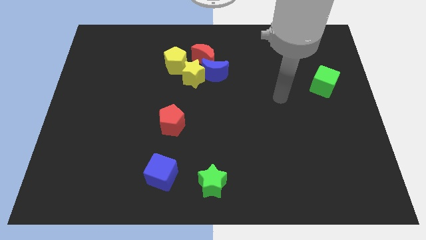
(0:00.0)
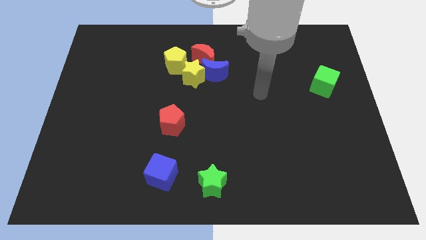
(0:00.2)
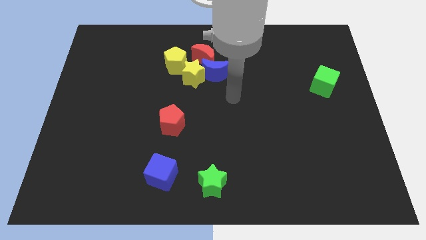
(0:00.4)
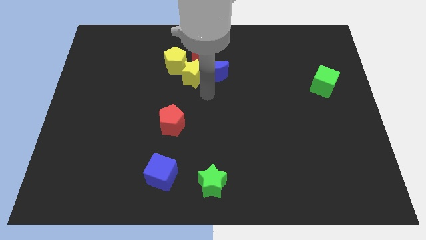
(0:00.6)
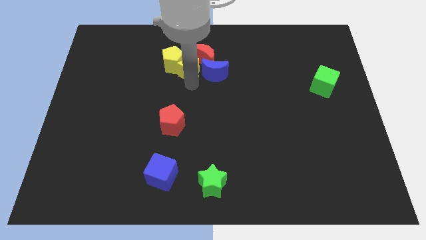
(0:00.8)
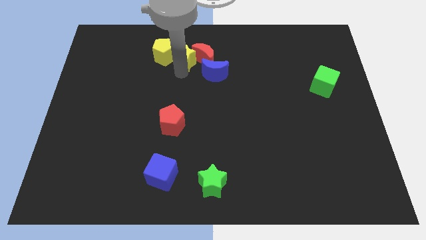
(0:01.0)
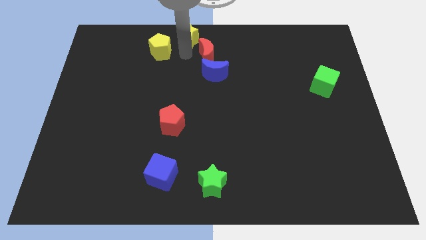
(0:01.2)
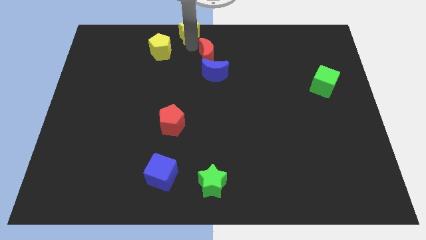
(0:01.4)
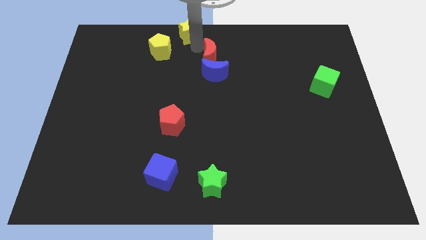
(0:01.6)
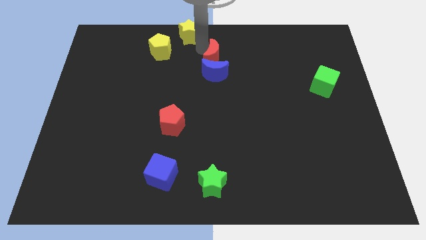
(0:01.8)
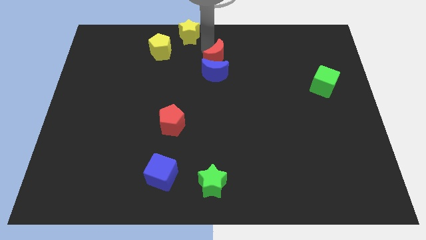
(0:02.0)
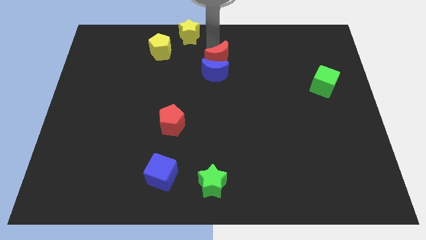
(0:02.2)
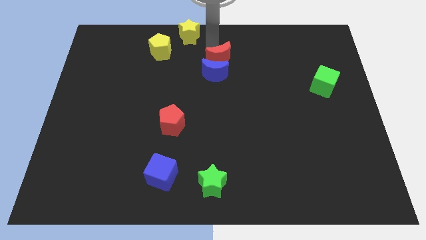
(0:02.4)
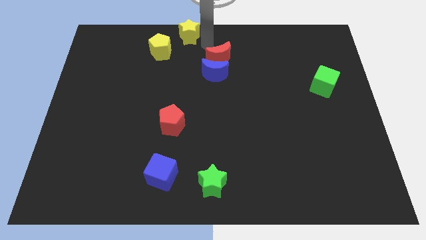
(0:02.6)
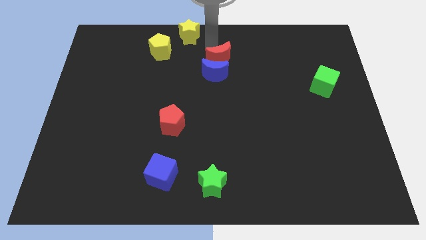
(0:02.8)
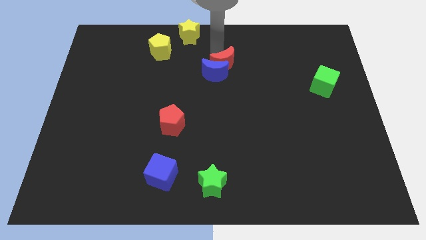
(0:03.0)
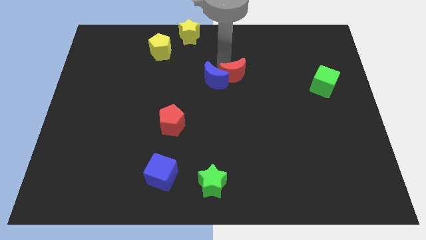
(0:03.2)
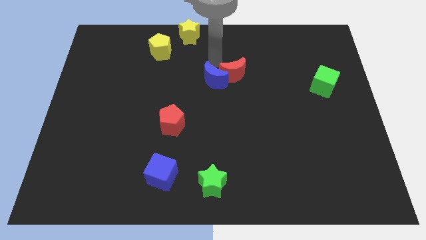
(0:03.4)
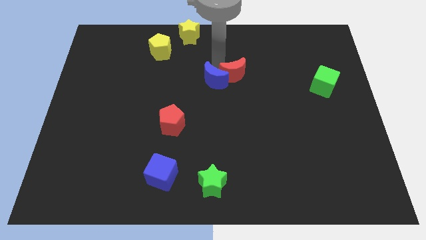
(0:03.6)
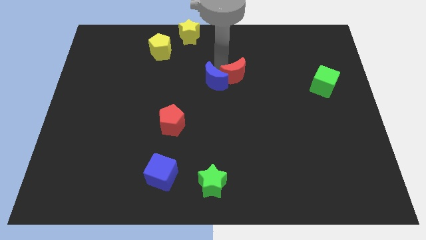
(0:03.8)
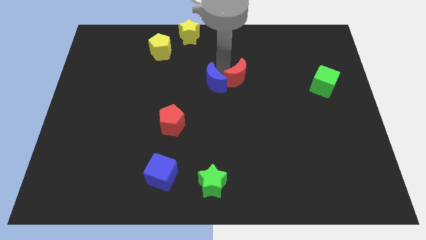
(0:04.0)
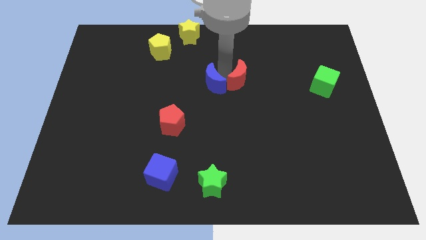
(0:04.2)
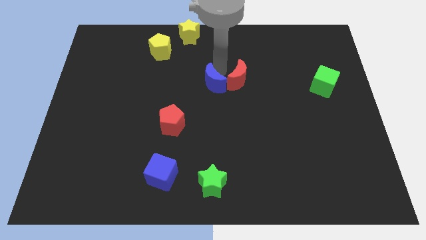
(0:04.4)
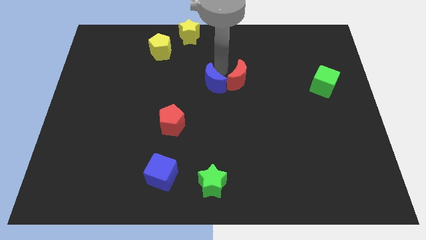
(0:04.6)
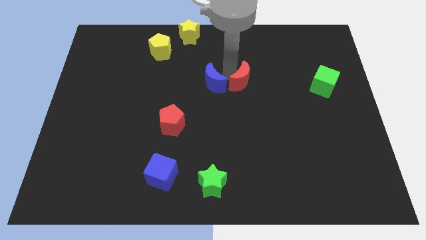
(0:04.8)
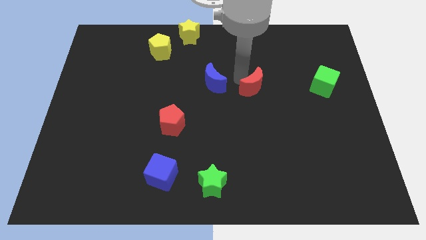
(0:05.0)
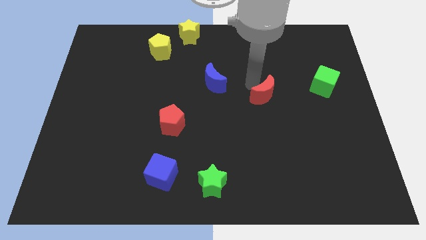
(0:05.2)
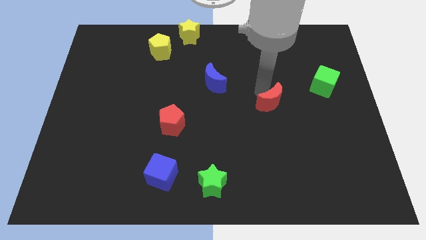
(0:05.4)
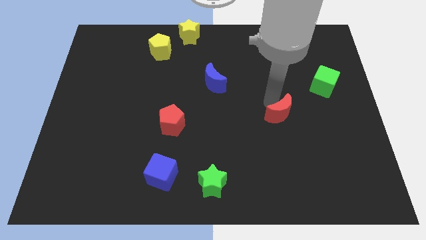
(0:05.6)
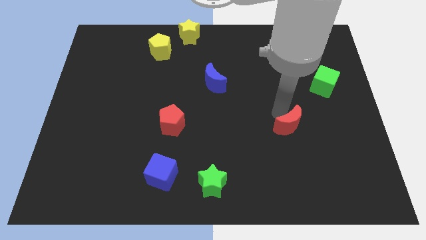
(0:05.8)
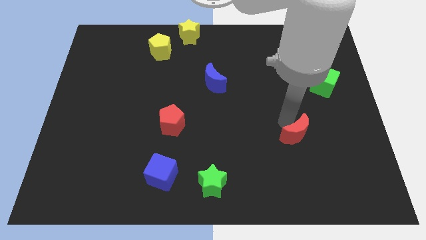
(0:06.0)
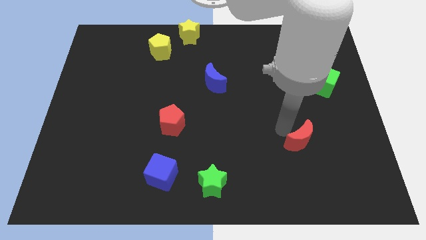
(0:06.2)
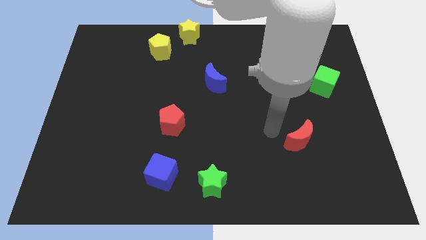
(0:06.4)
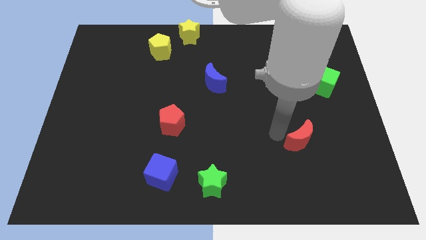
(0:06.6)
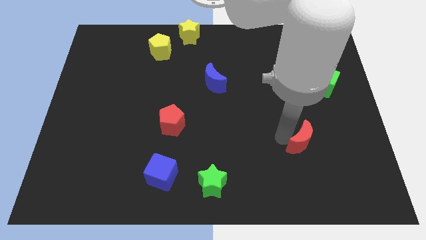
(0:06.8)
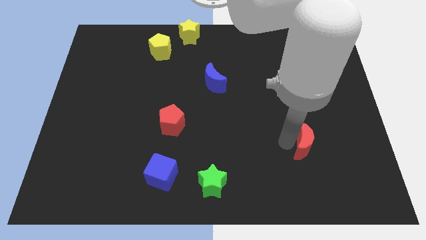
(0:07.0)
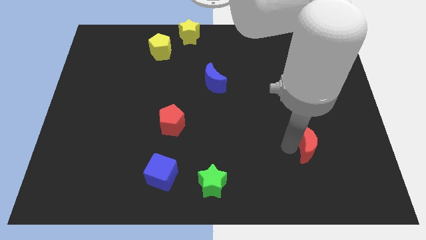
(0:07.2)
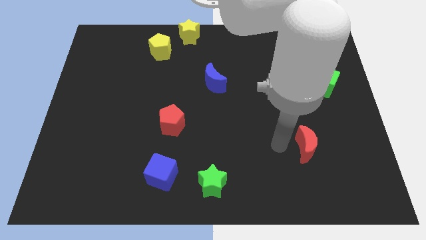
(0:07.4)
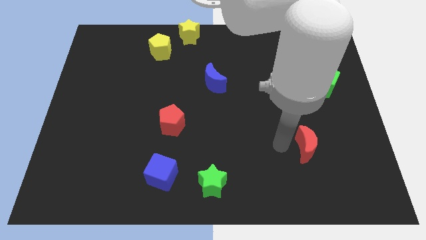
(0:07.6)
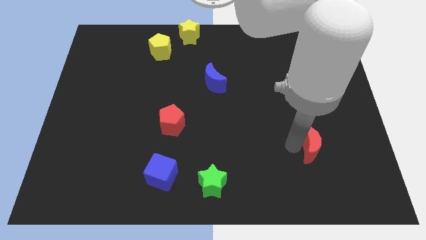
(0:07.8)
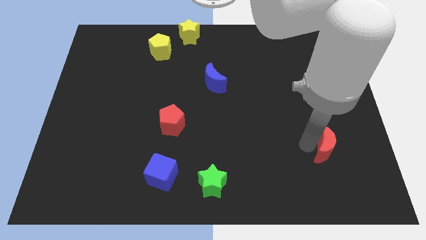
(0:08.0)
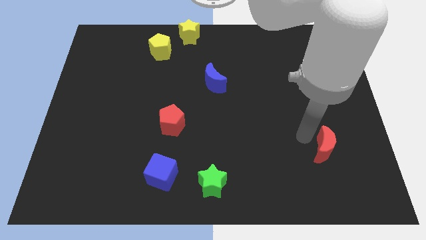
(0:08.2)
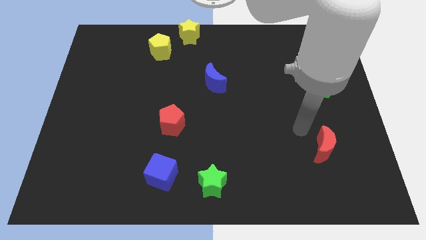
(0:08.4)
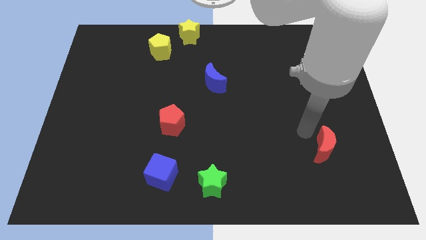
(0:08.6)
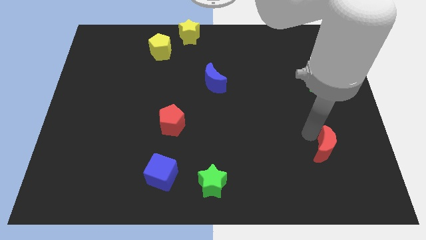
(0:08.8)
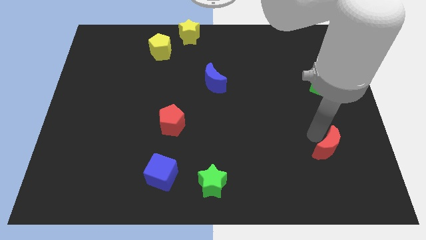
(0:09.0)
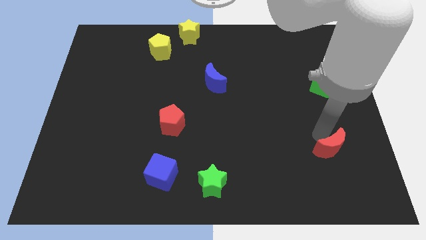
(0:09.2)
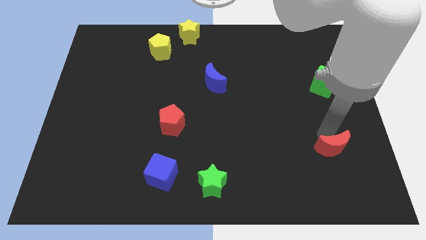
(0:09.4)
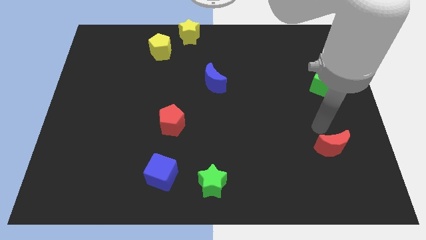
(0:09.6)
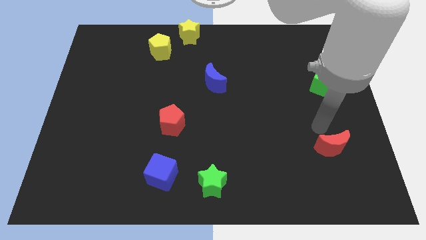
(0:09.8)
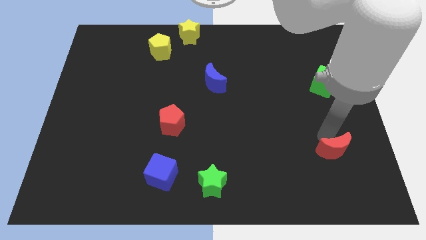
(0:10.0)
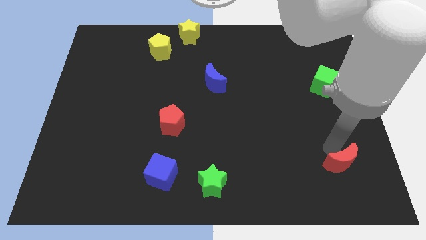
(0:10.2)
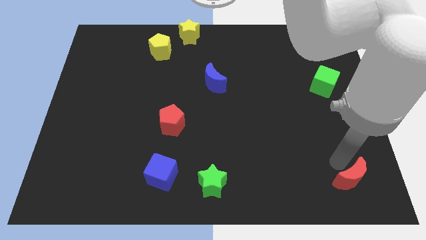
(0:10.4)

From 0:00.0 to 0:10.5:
push the red moon to the bottom right

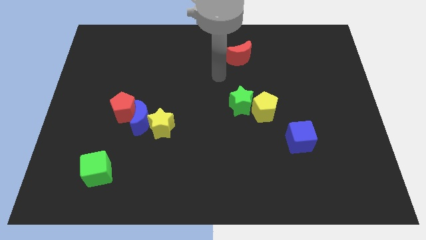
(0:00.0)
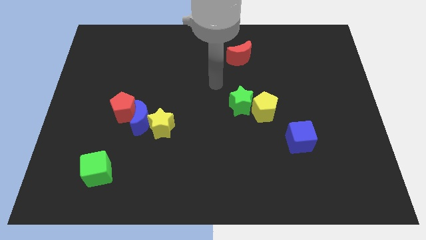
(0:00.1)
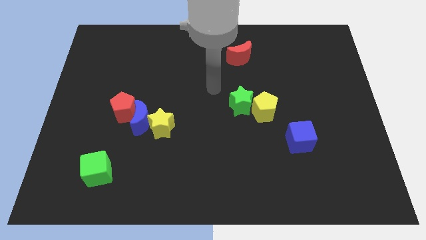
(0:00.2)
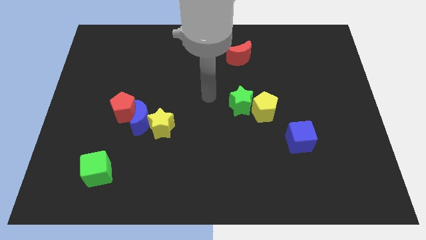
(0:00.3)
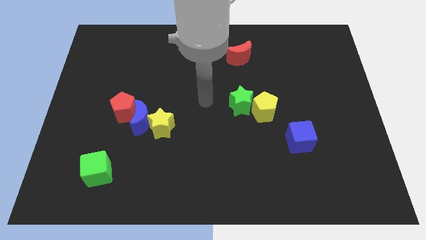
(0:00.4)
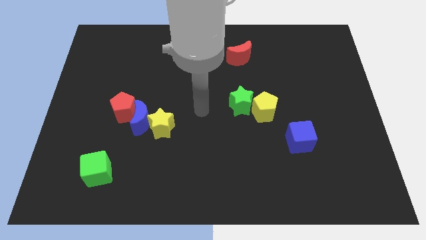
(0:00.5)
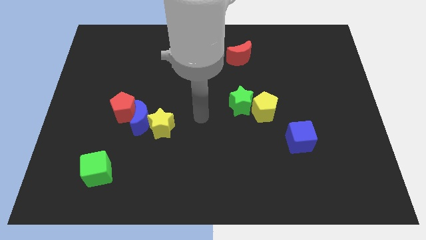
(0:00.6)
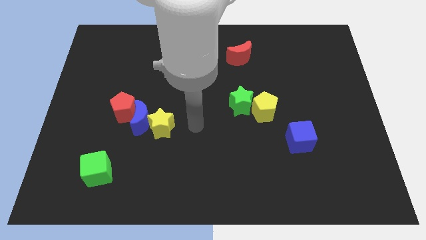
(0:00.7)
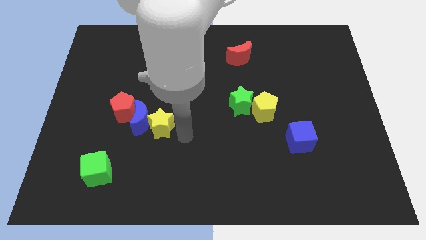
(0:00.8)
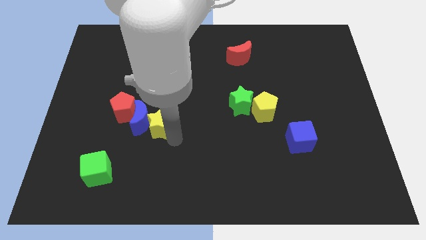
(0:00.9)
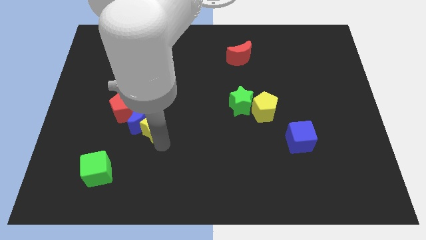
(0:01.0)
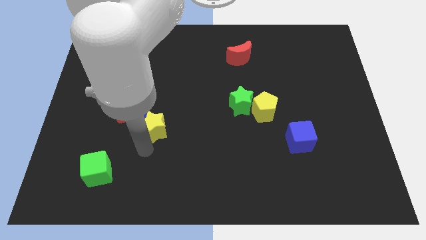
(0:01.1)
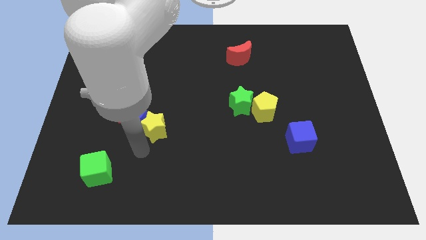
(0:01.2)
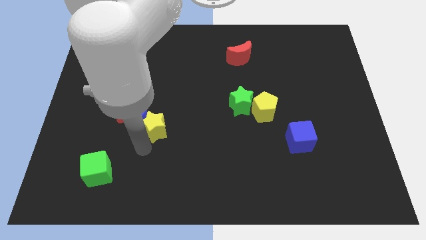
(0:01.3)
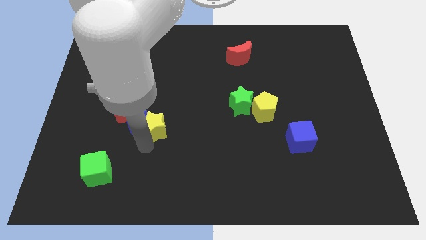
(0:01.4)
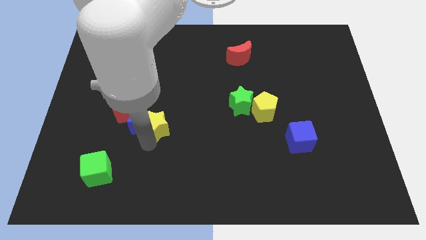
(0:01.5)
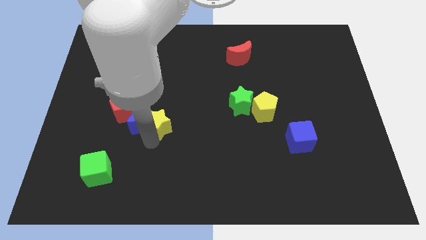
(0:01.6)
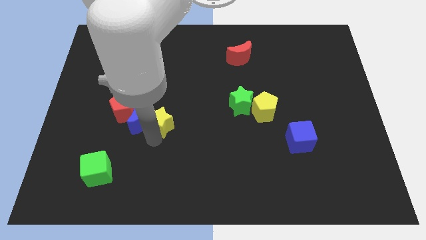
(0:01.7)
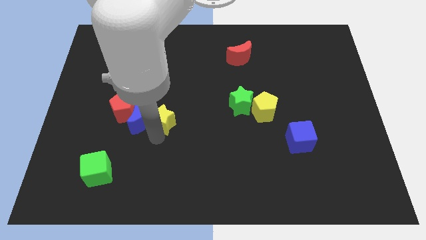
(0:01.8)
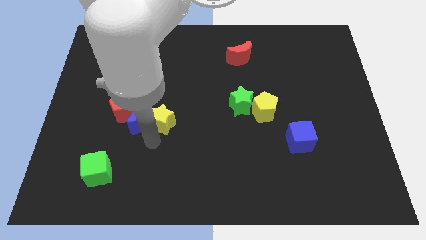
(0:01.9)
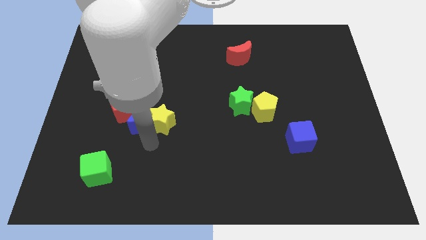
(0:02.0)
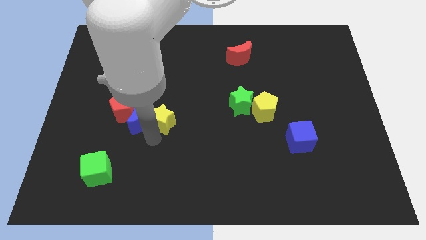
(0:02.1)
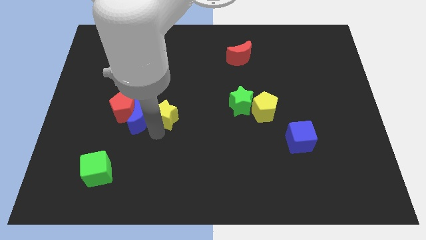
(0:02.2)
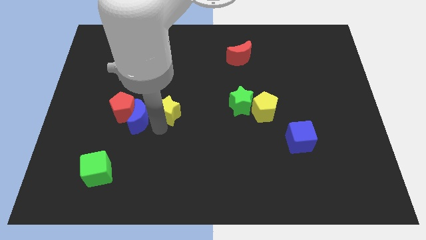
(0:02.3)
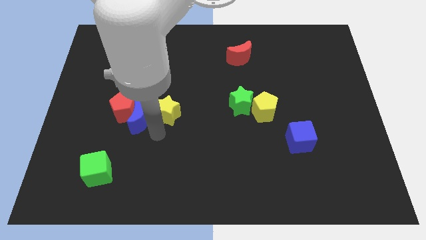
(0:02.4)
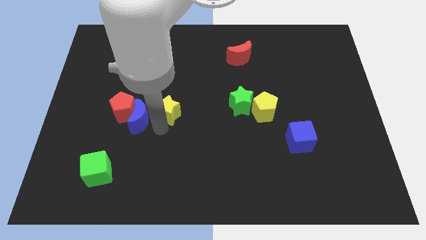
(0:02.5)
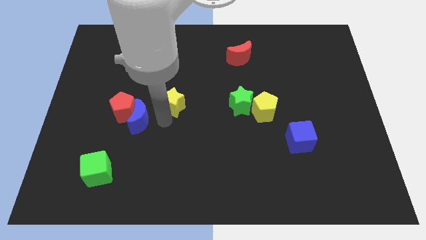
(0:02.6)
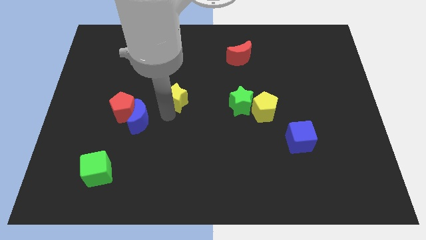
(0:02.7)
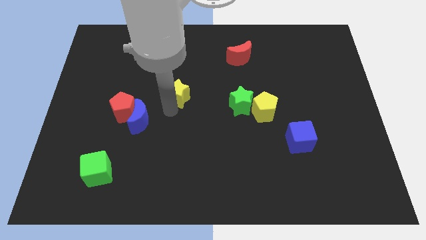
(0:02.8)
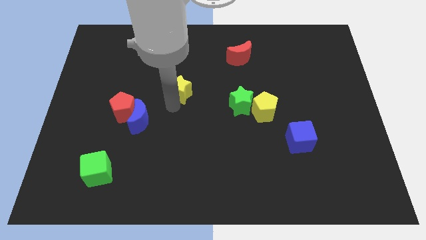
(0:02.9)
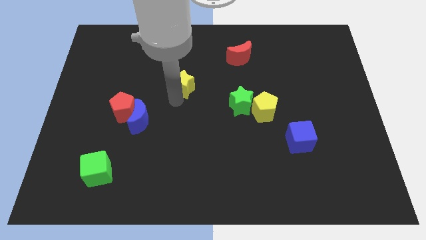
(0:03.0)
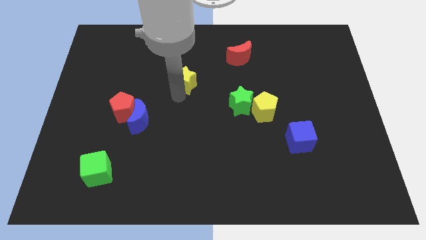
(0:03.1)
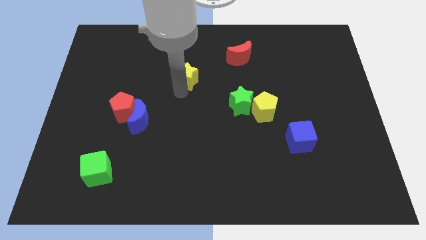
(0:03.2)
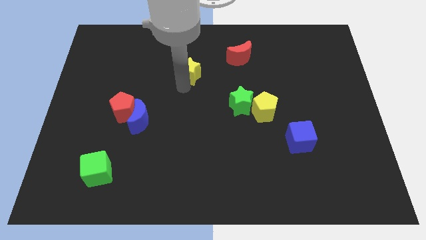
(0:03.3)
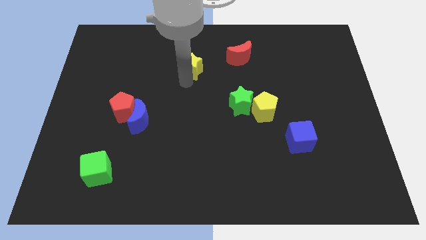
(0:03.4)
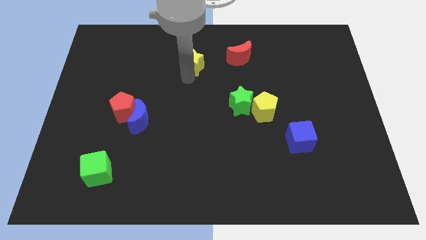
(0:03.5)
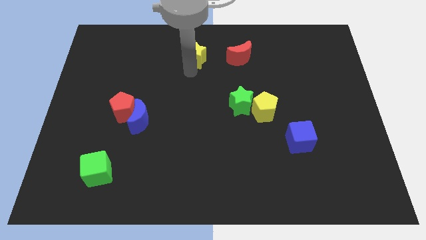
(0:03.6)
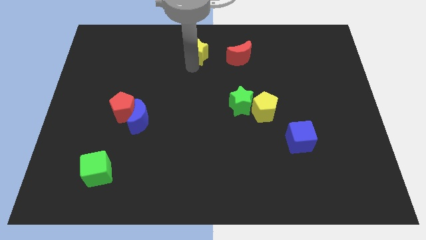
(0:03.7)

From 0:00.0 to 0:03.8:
slide the yellow star to the top
